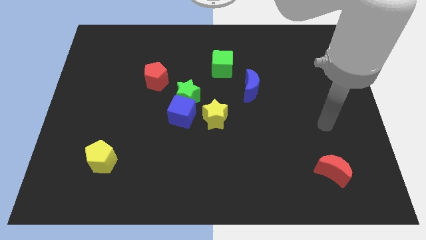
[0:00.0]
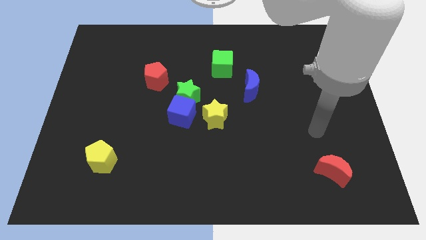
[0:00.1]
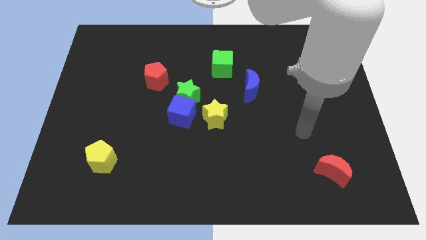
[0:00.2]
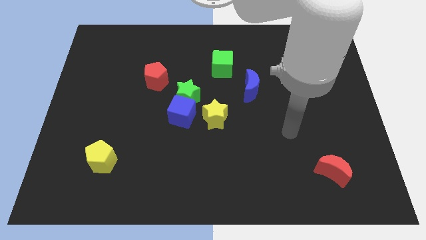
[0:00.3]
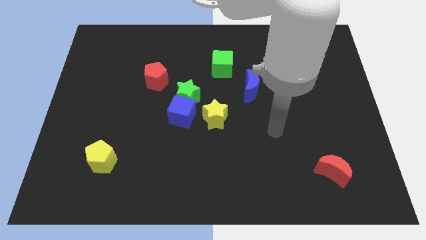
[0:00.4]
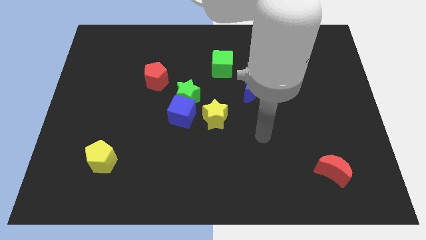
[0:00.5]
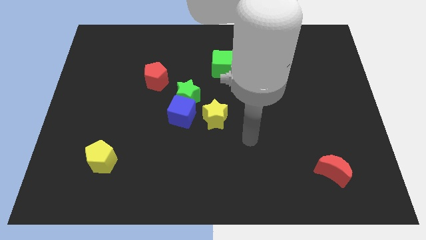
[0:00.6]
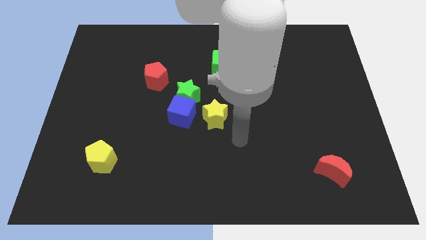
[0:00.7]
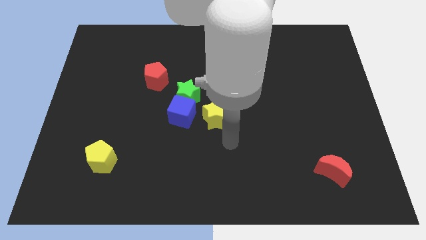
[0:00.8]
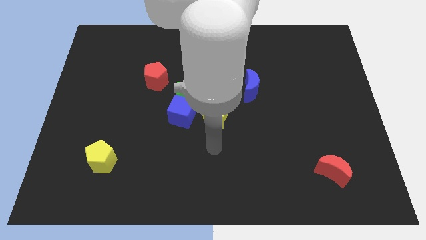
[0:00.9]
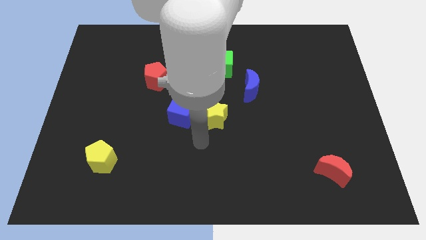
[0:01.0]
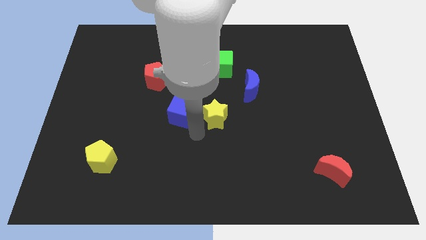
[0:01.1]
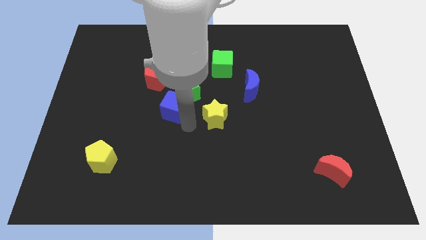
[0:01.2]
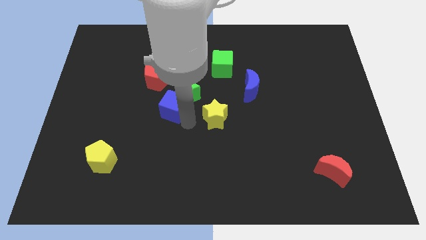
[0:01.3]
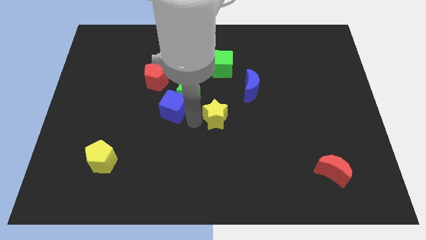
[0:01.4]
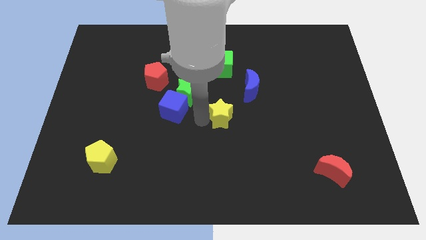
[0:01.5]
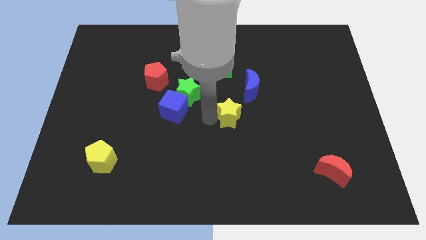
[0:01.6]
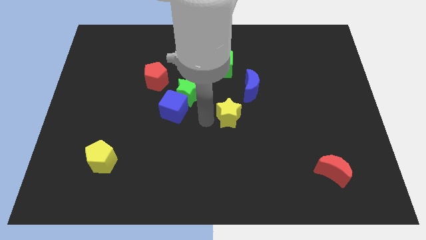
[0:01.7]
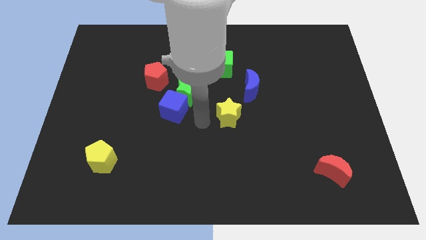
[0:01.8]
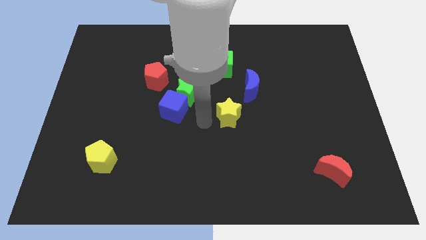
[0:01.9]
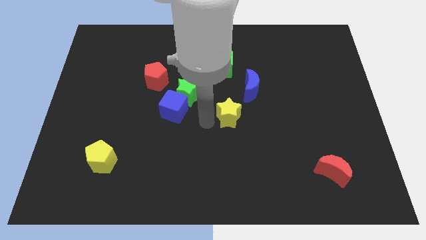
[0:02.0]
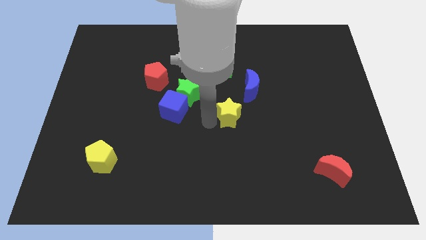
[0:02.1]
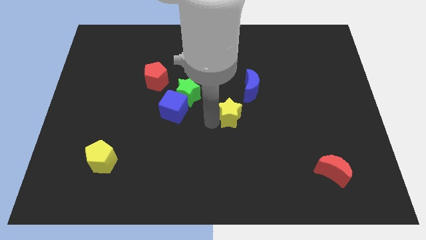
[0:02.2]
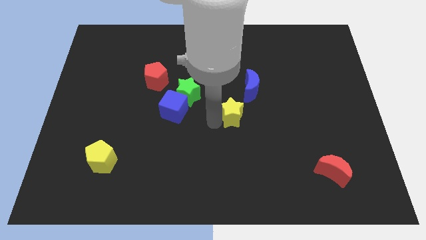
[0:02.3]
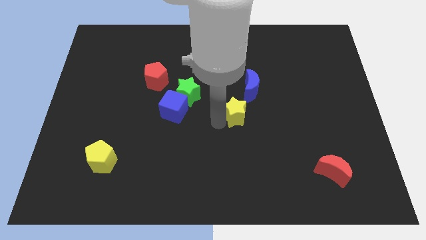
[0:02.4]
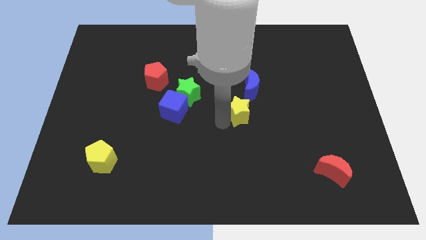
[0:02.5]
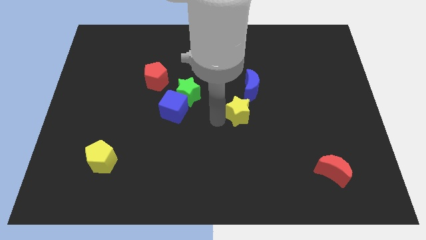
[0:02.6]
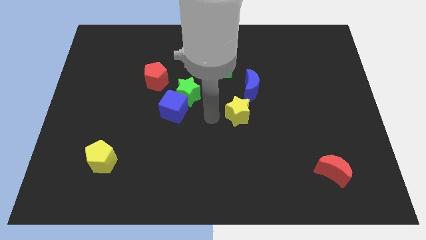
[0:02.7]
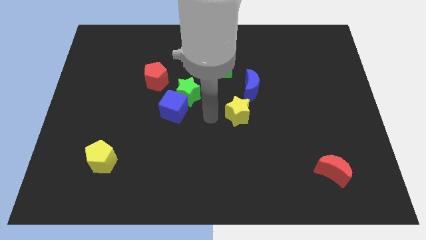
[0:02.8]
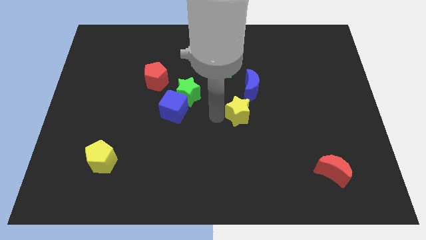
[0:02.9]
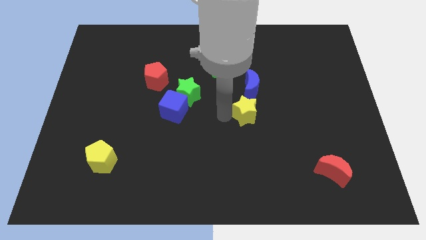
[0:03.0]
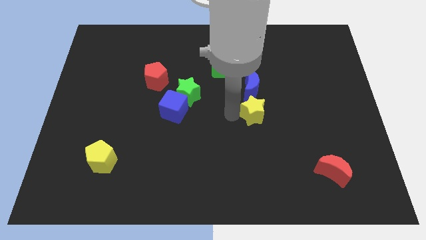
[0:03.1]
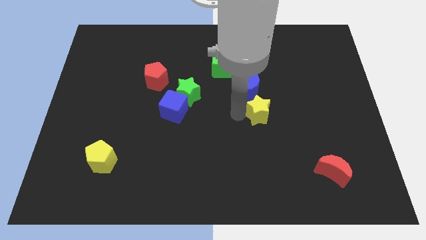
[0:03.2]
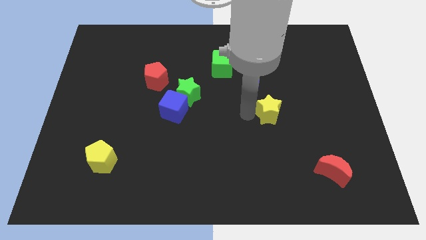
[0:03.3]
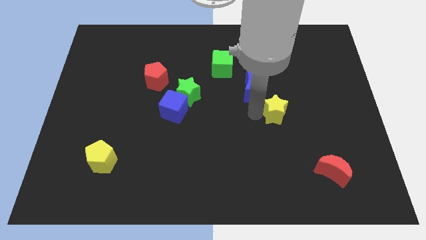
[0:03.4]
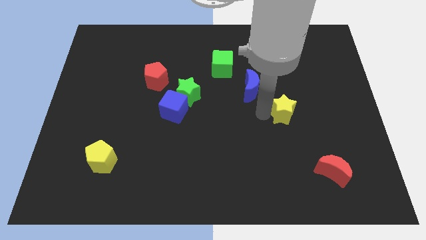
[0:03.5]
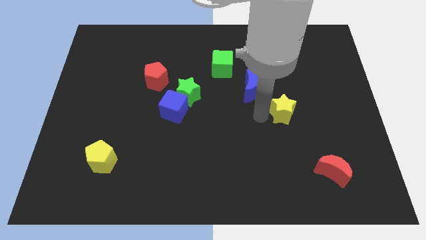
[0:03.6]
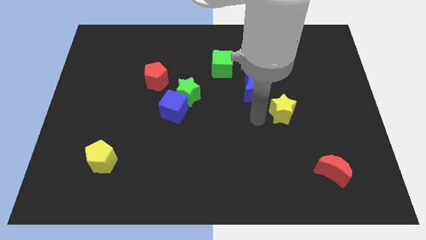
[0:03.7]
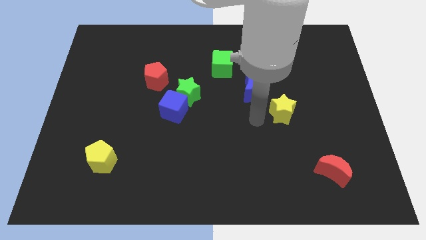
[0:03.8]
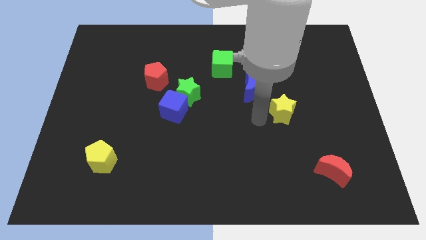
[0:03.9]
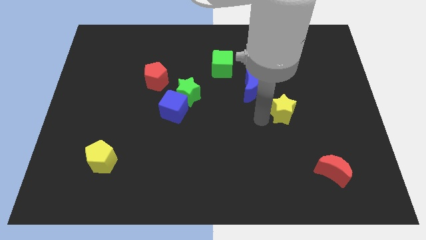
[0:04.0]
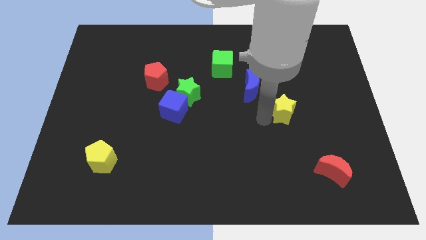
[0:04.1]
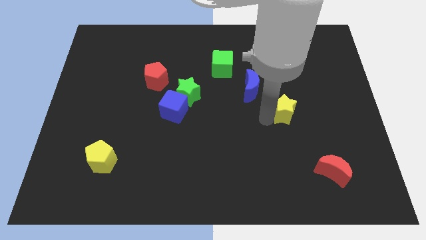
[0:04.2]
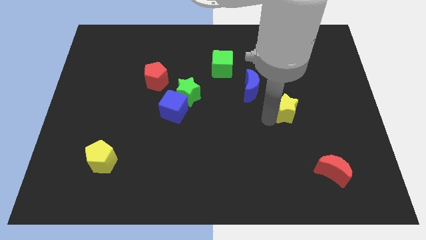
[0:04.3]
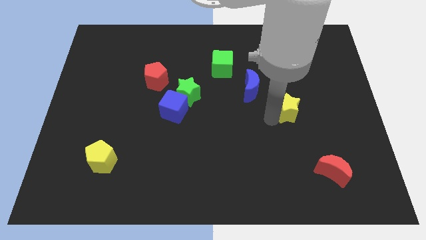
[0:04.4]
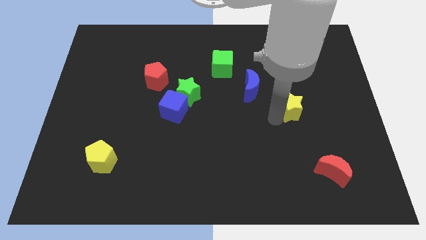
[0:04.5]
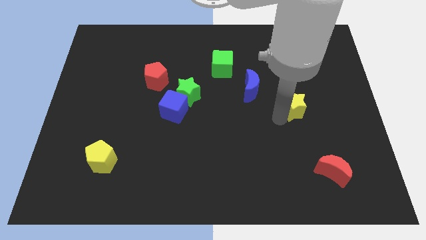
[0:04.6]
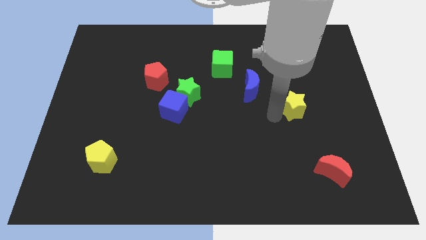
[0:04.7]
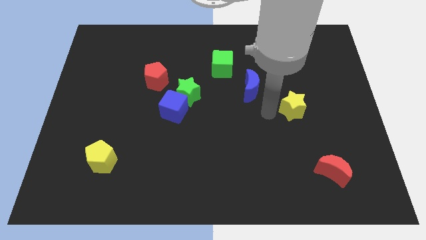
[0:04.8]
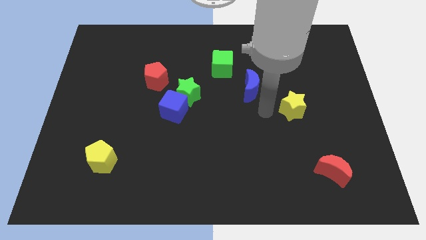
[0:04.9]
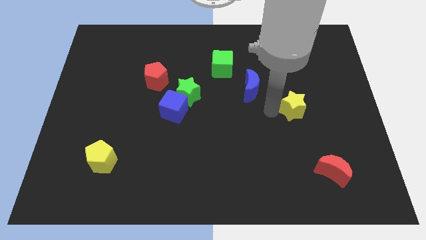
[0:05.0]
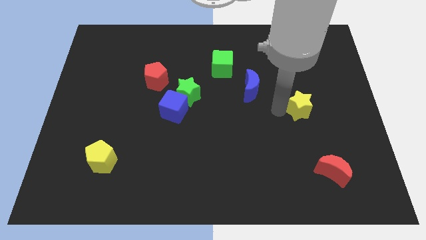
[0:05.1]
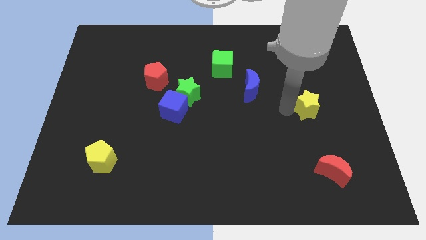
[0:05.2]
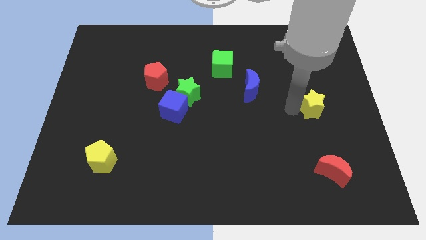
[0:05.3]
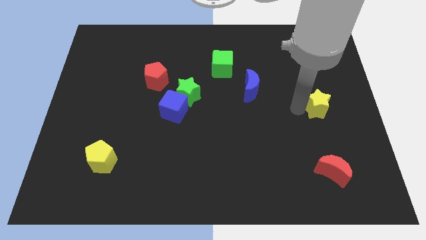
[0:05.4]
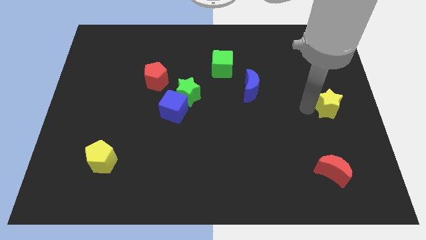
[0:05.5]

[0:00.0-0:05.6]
move the yellow star to the right side

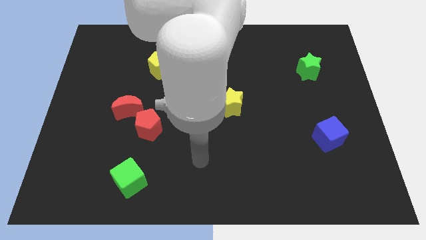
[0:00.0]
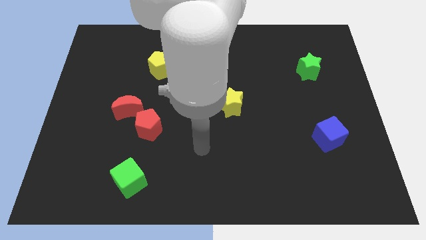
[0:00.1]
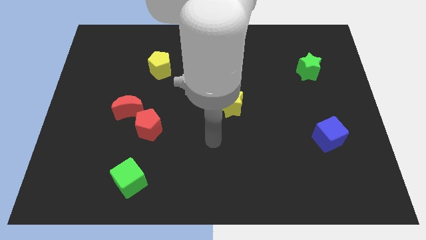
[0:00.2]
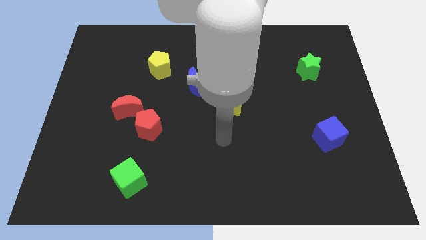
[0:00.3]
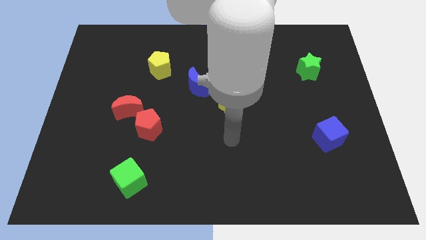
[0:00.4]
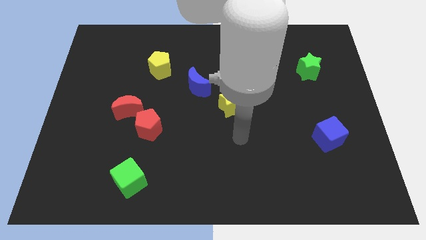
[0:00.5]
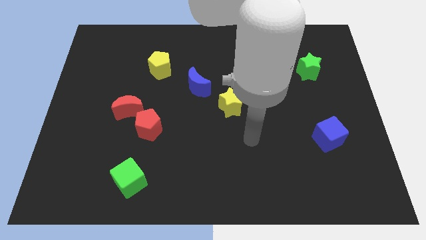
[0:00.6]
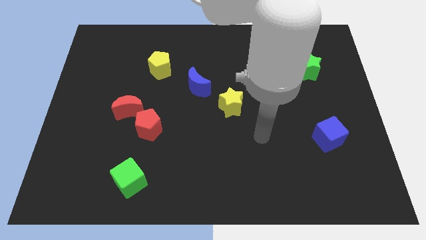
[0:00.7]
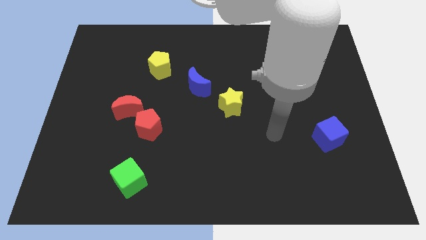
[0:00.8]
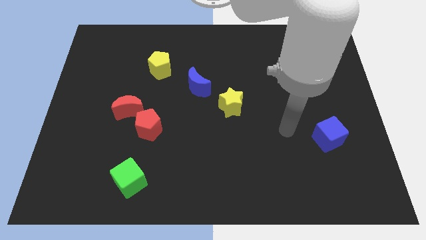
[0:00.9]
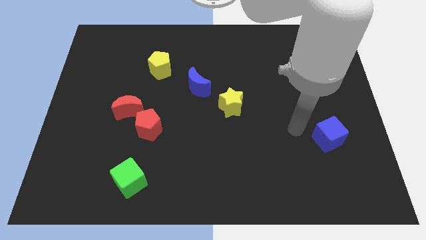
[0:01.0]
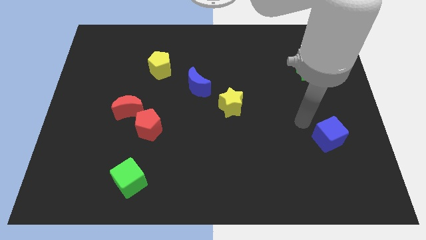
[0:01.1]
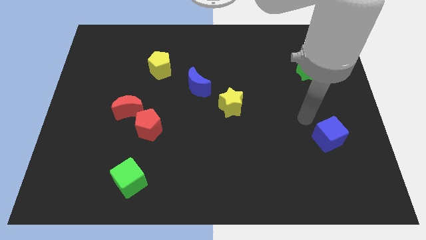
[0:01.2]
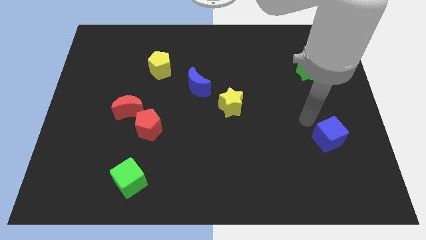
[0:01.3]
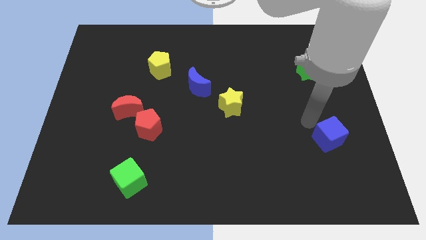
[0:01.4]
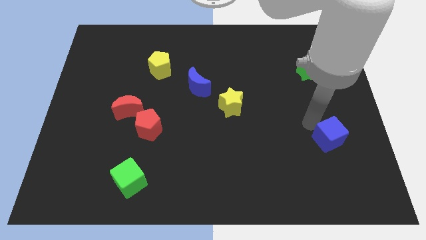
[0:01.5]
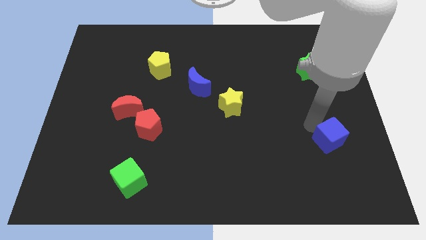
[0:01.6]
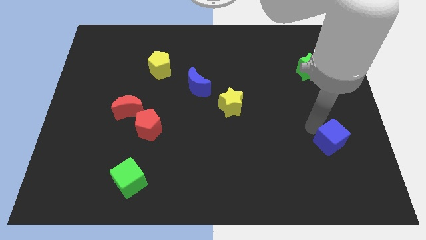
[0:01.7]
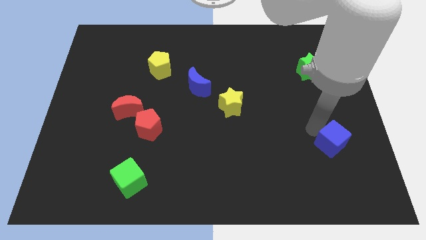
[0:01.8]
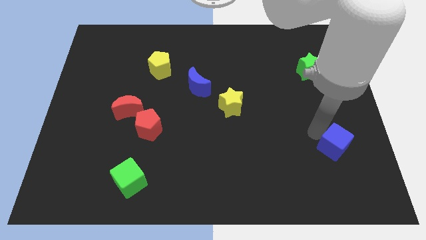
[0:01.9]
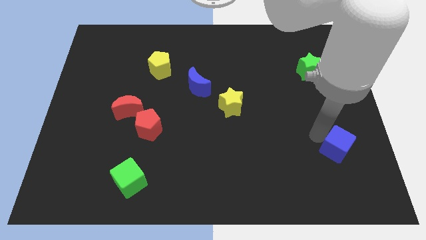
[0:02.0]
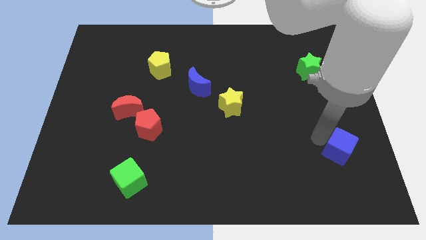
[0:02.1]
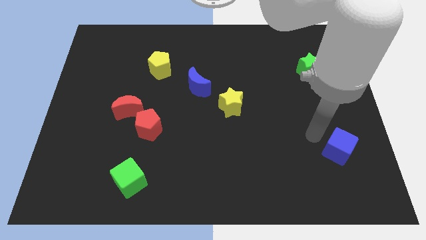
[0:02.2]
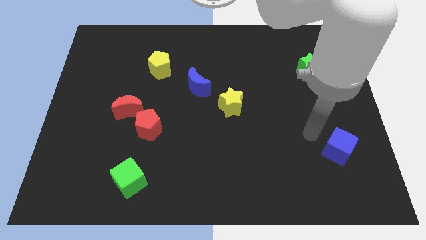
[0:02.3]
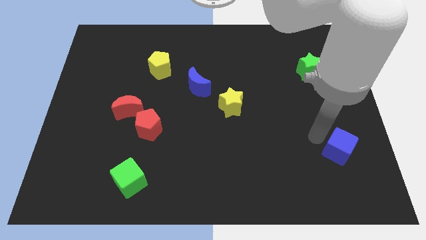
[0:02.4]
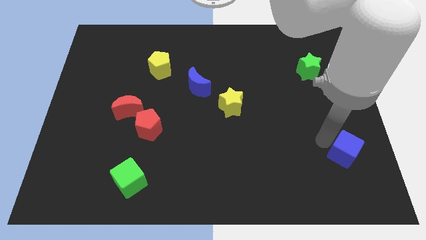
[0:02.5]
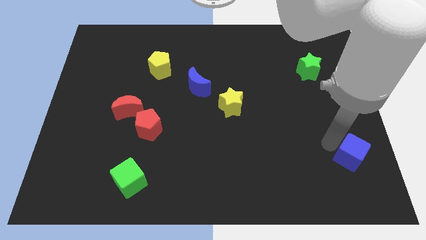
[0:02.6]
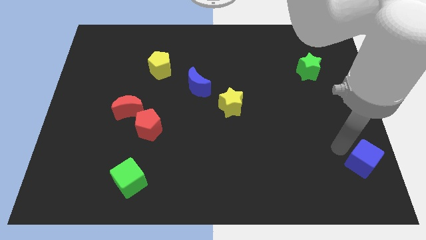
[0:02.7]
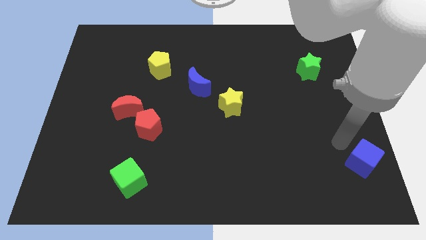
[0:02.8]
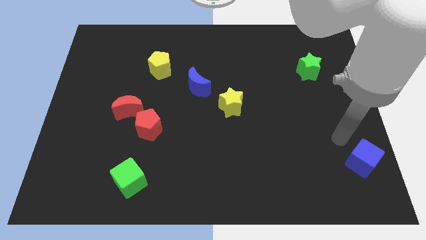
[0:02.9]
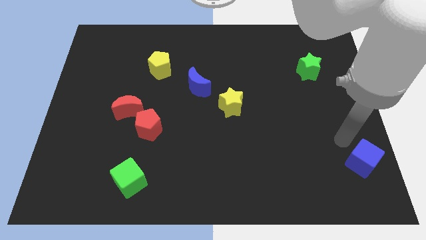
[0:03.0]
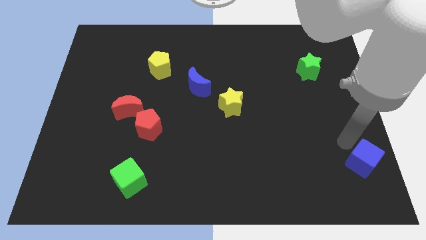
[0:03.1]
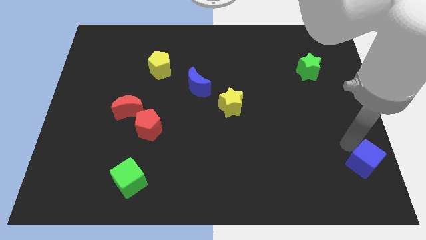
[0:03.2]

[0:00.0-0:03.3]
put the blue cube to the bottom right of the board
